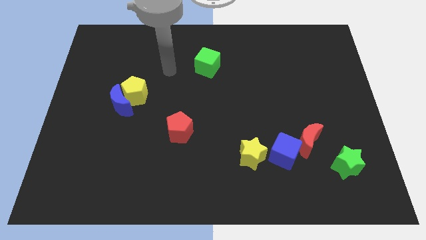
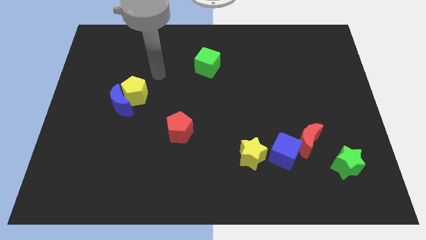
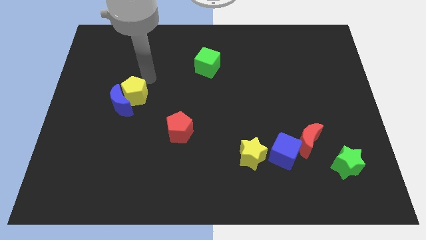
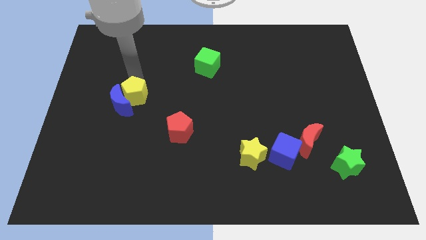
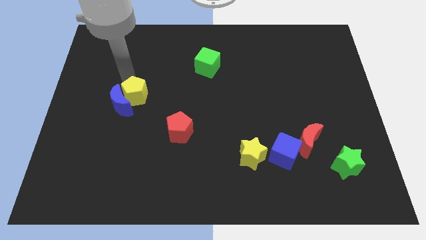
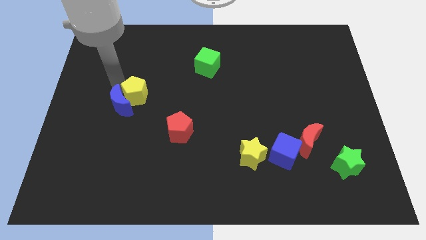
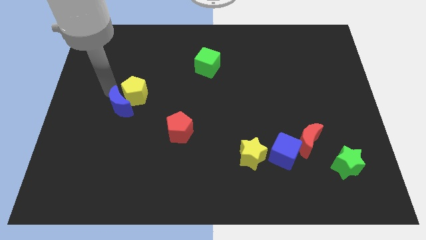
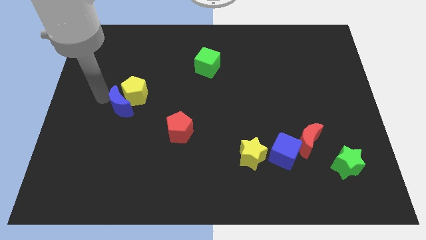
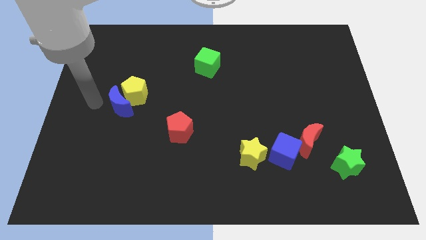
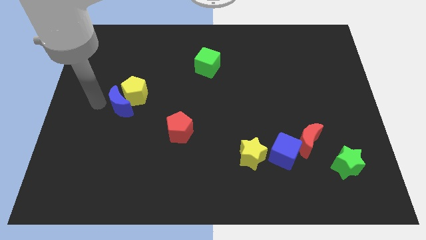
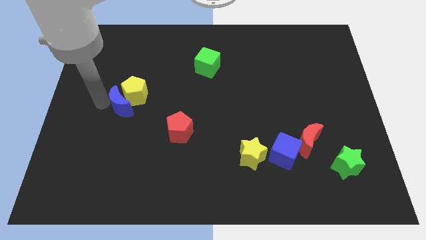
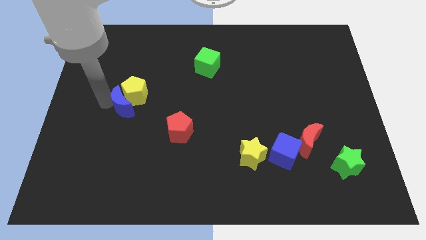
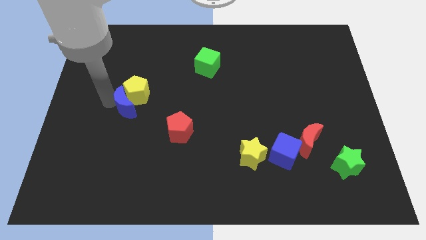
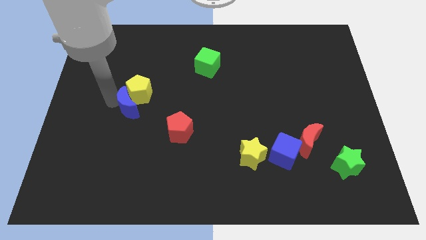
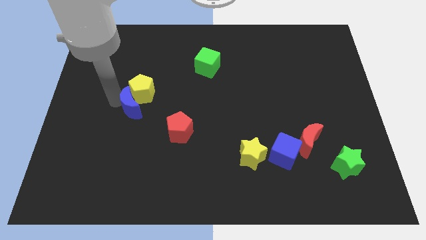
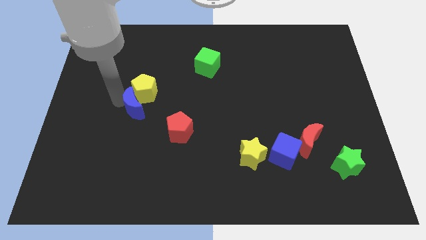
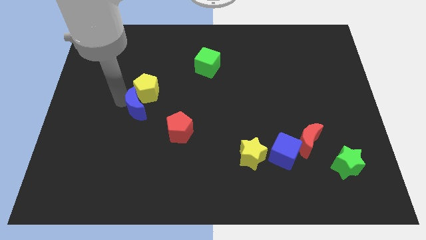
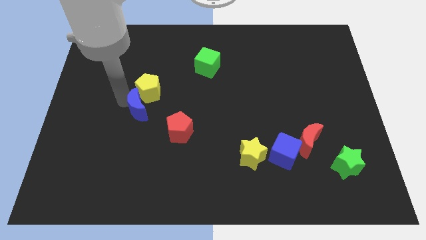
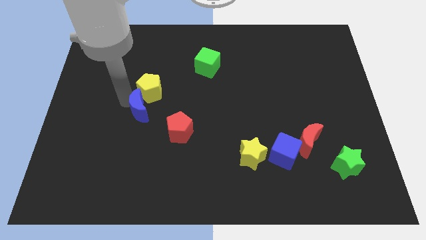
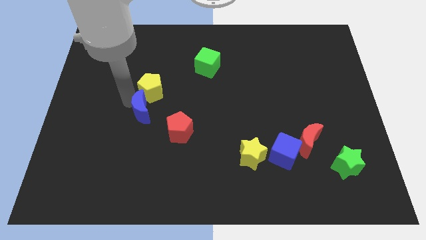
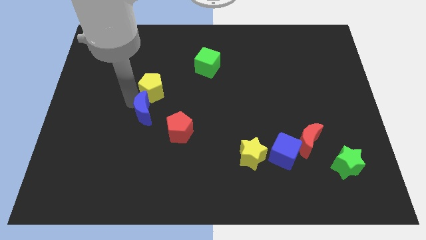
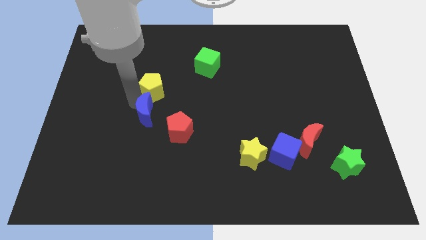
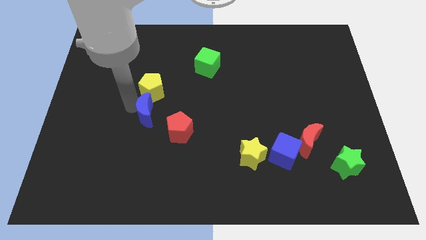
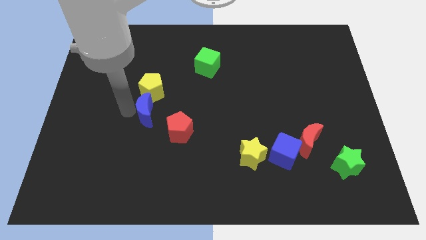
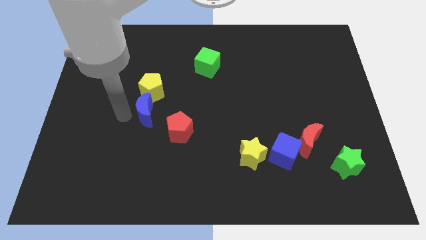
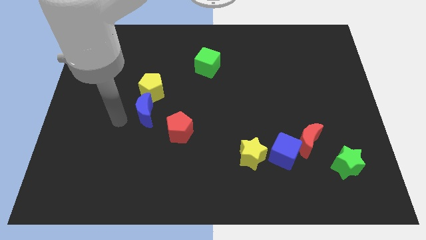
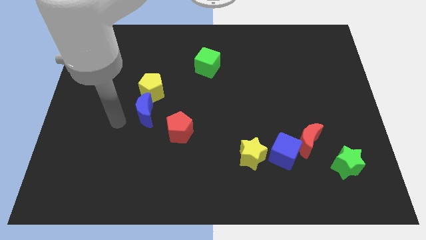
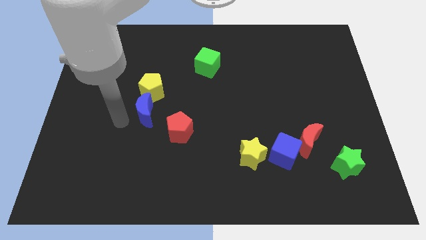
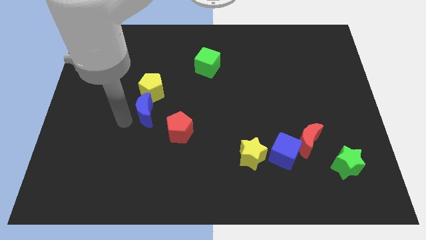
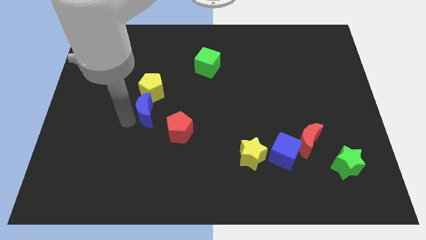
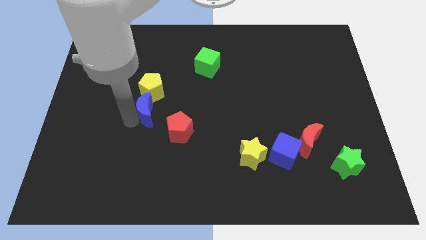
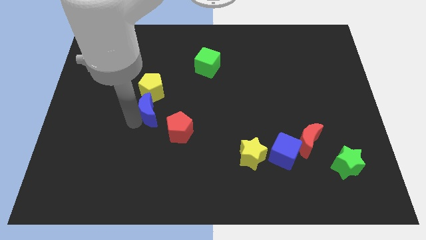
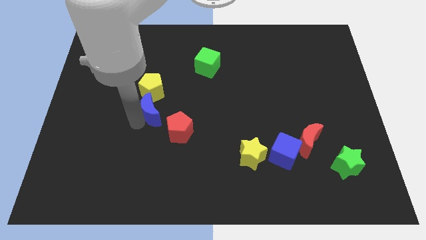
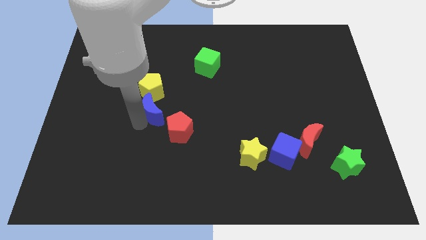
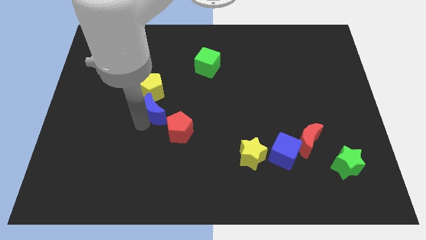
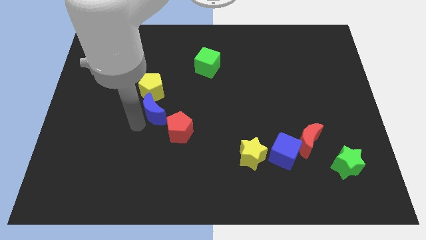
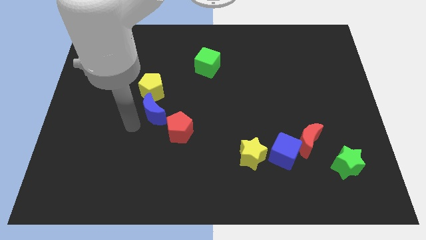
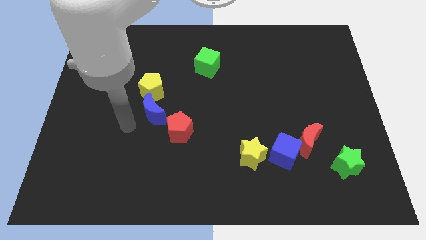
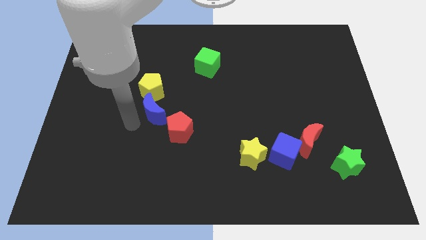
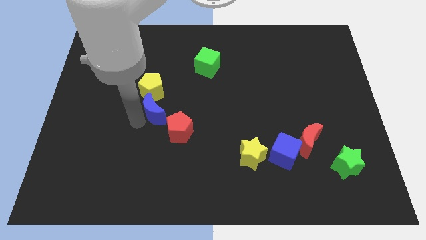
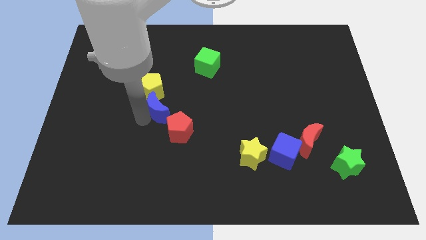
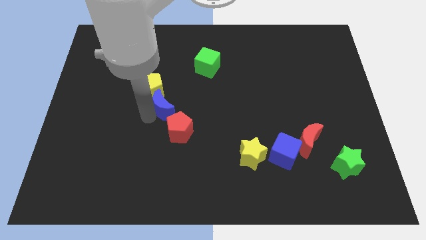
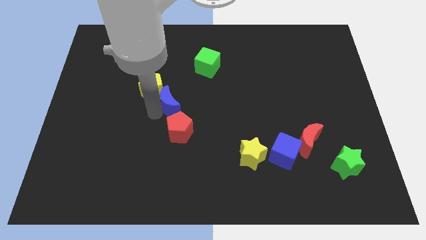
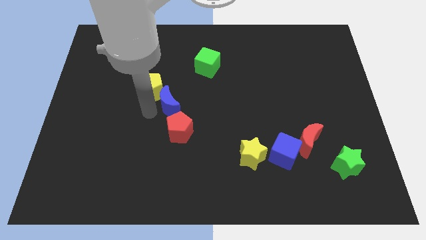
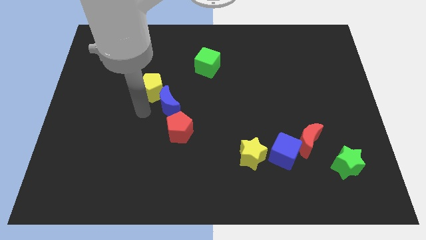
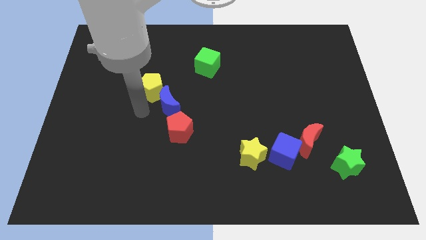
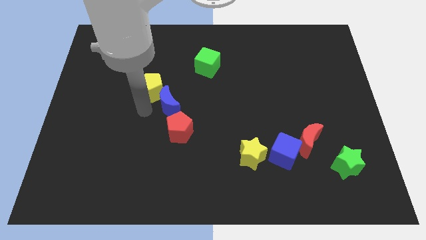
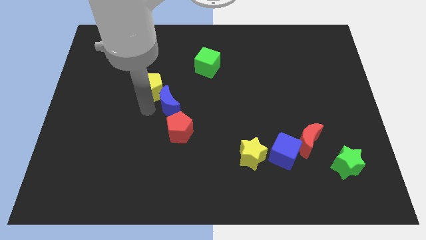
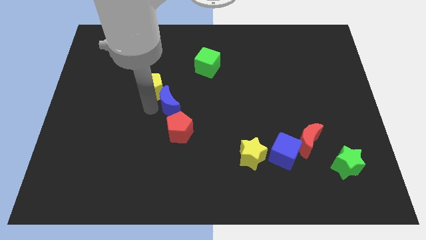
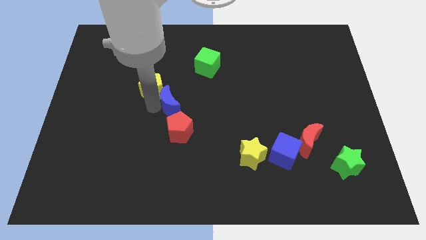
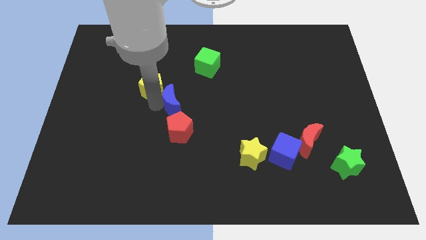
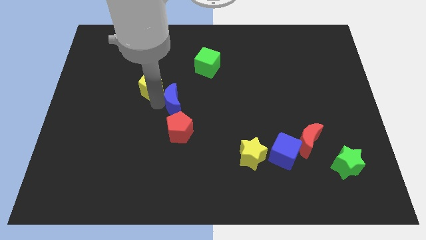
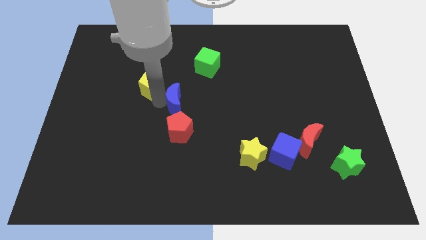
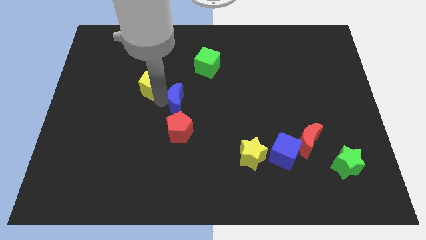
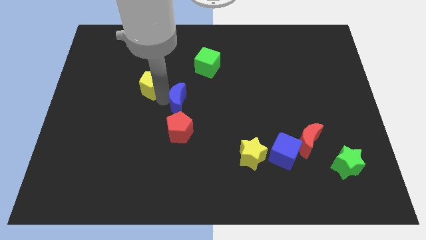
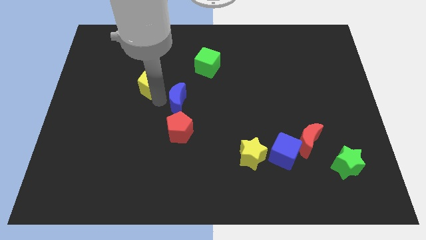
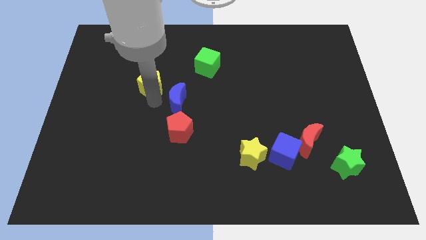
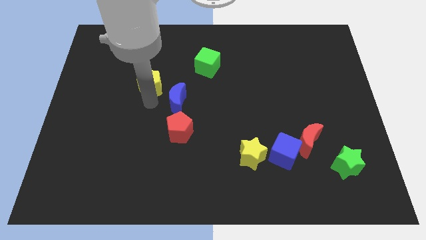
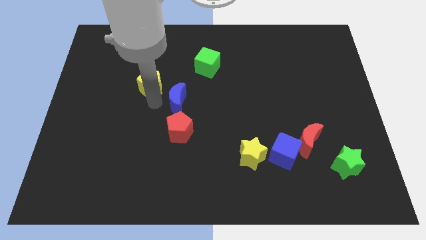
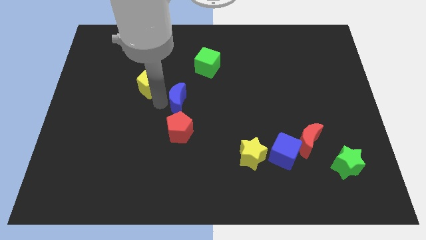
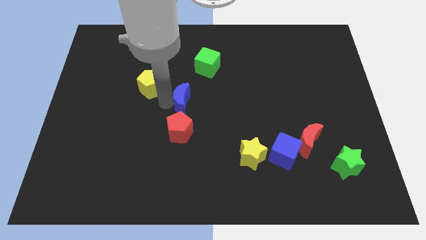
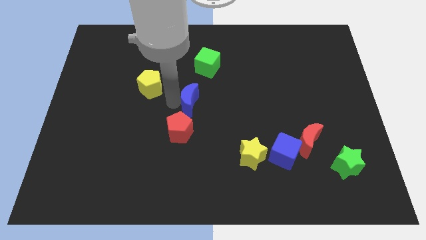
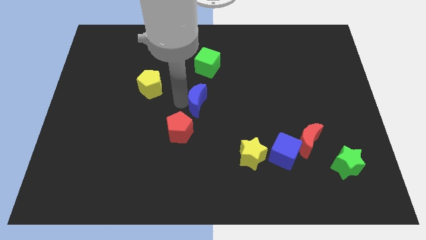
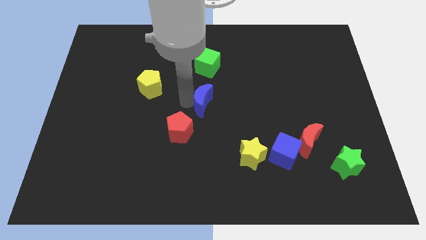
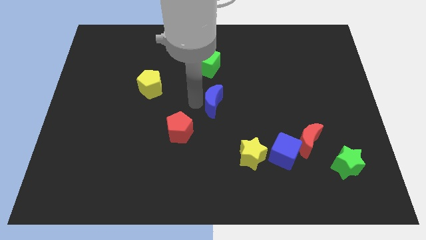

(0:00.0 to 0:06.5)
slide the blue moon to the right

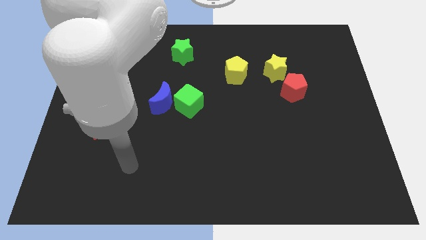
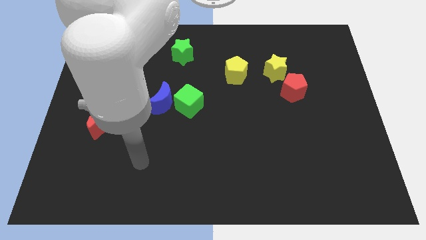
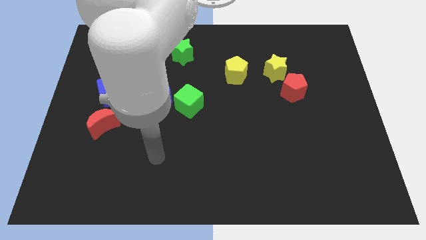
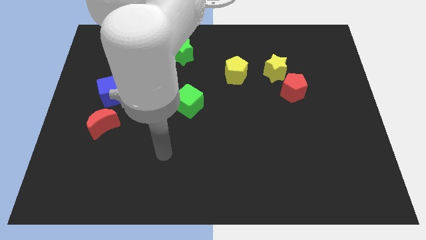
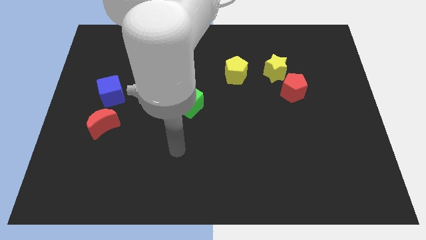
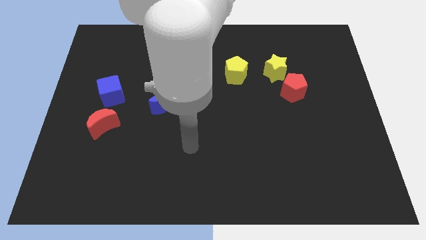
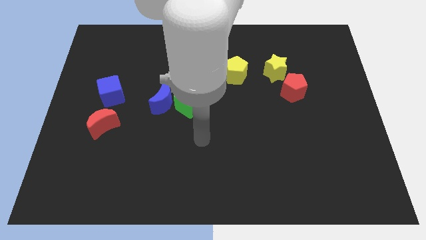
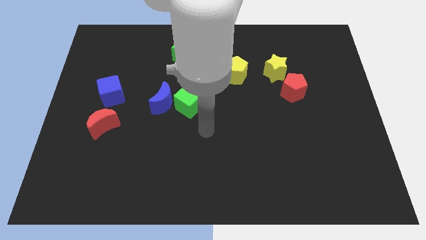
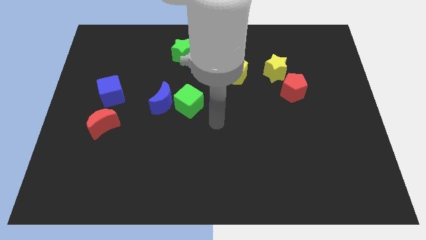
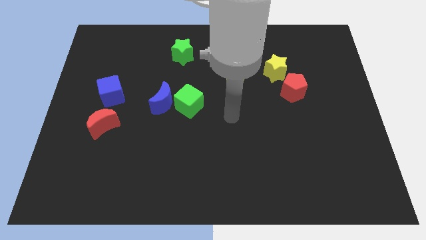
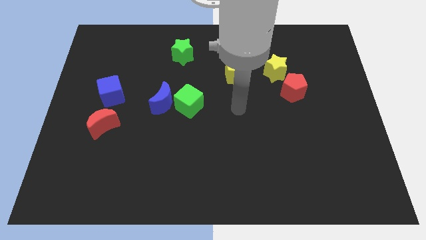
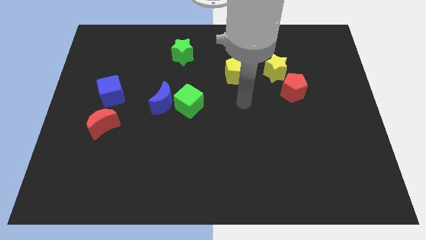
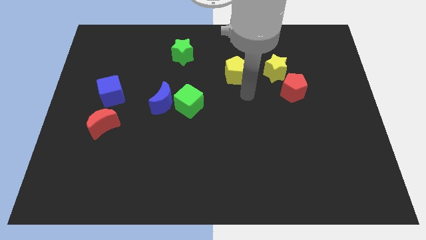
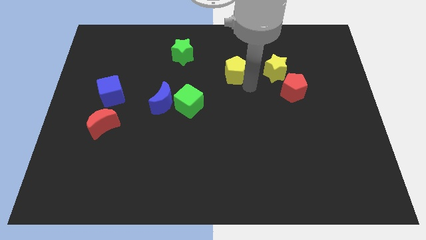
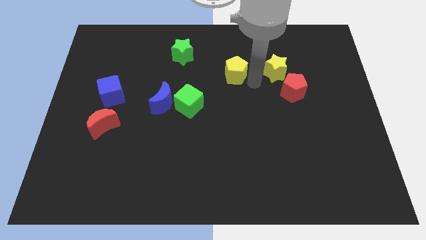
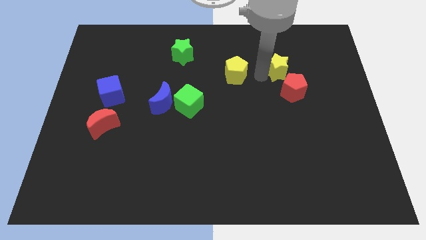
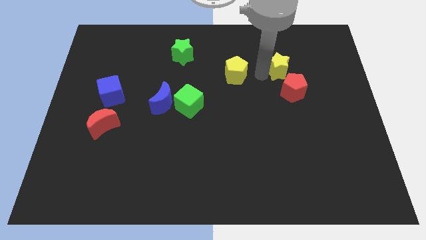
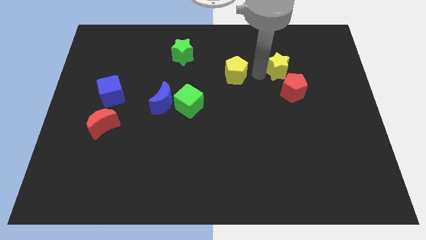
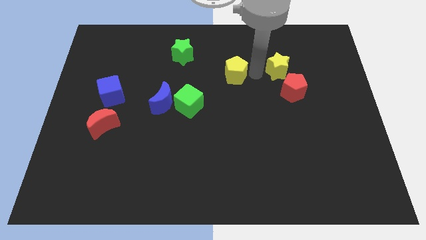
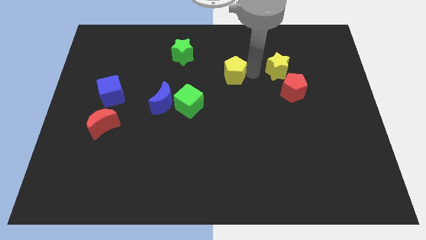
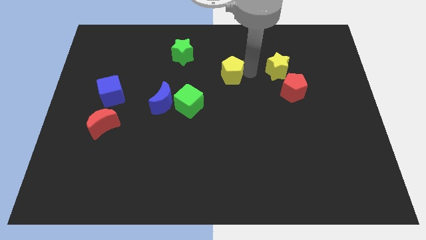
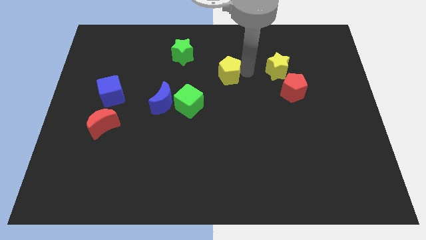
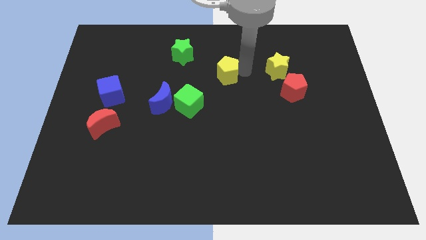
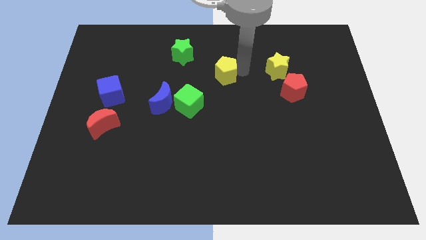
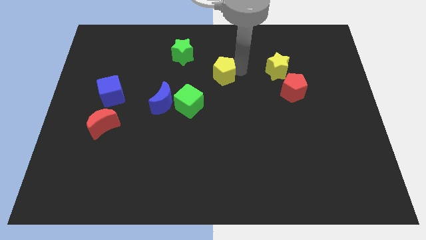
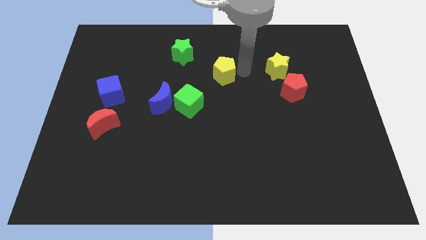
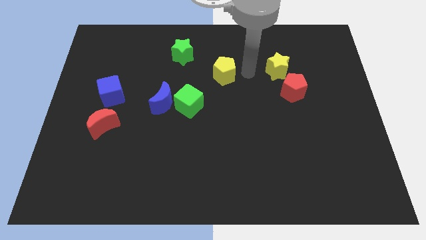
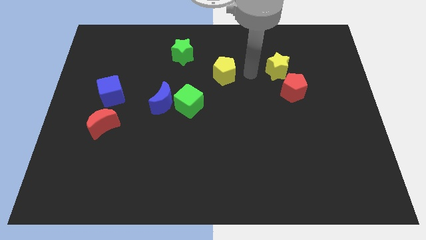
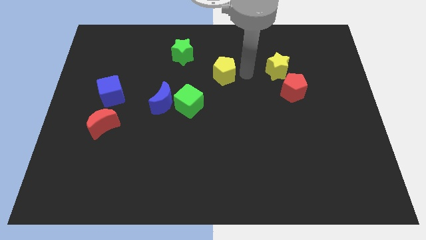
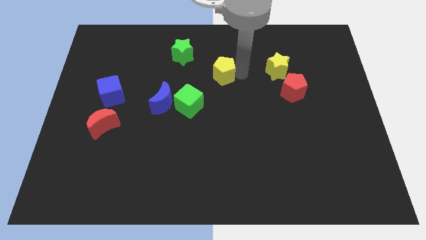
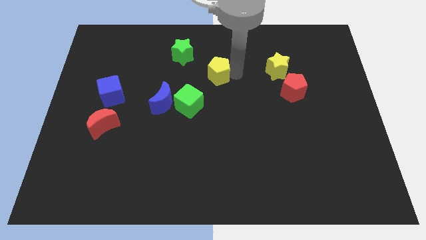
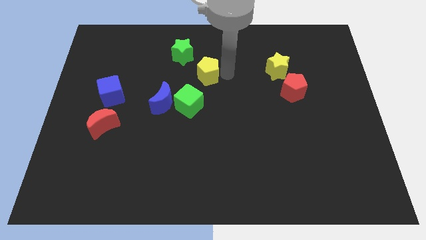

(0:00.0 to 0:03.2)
slightly push the yellow pentagon left
